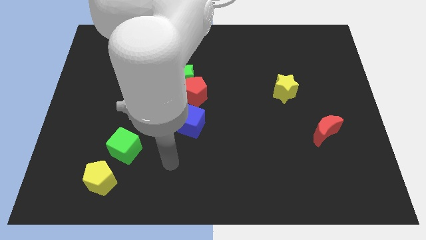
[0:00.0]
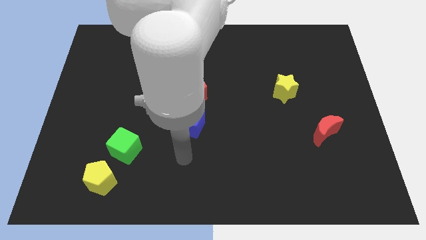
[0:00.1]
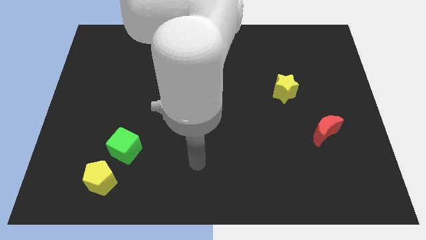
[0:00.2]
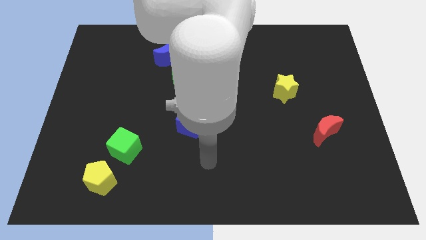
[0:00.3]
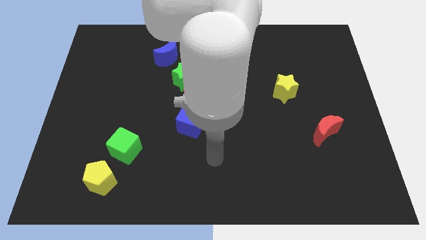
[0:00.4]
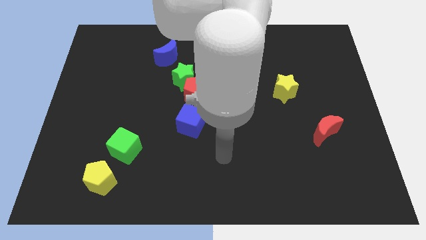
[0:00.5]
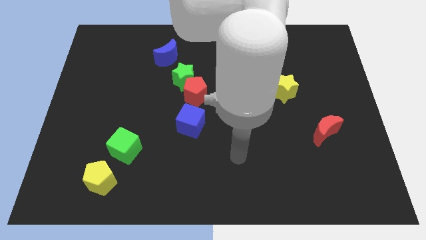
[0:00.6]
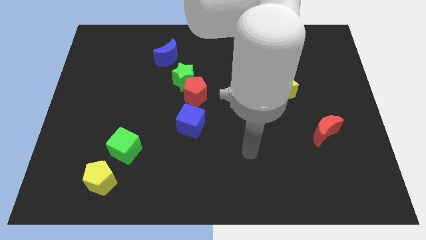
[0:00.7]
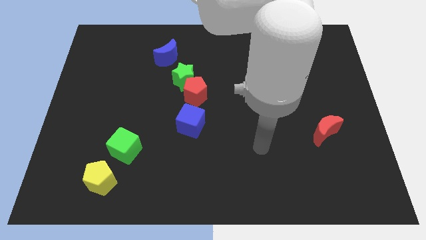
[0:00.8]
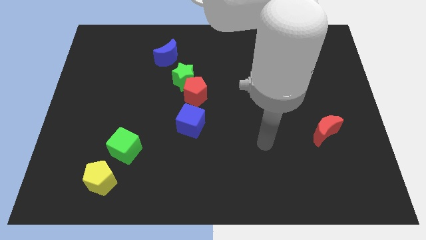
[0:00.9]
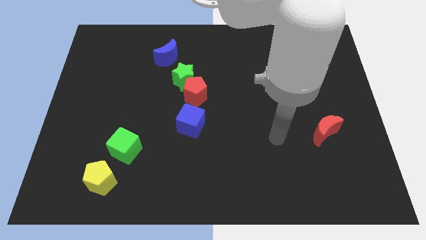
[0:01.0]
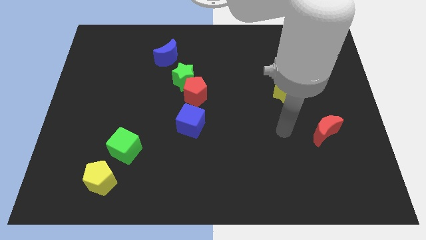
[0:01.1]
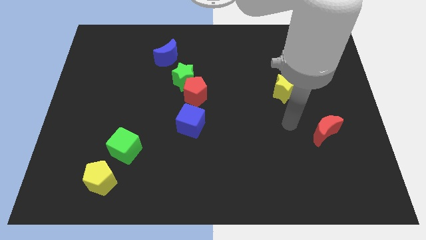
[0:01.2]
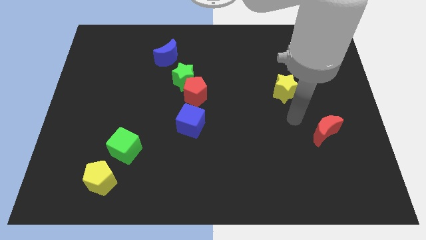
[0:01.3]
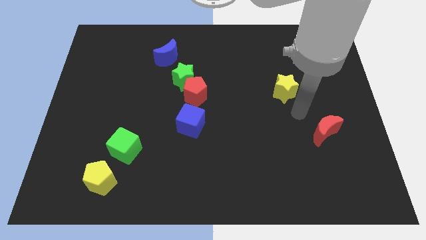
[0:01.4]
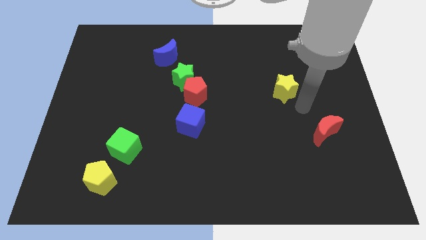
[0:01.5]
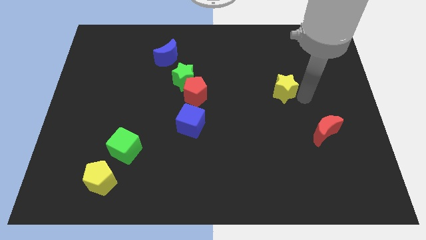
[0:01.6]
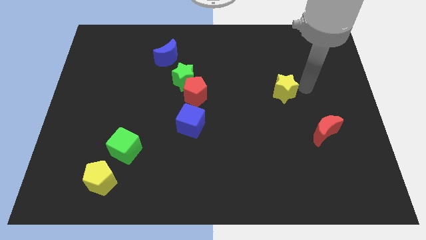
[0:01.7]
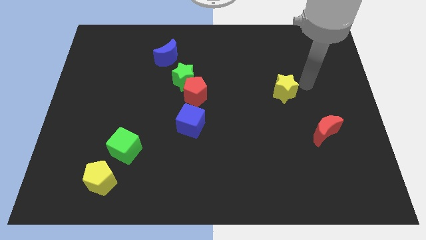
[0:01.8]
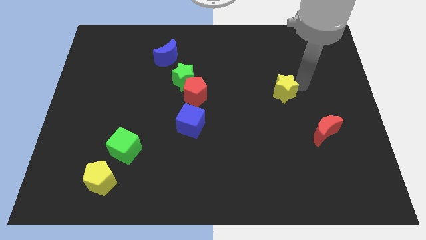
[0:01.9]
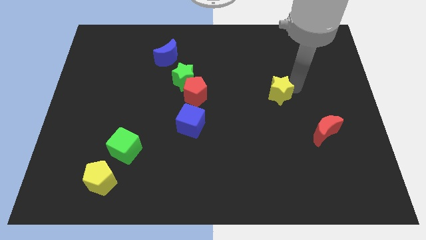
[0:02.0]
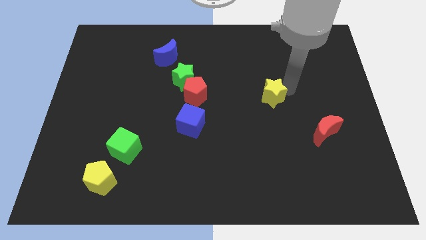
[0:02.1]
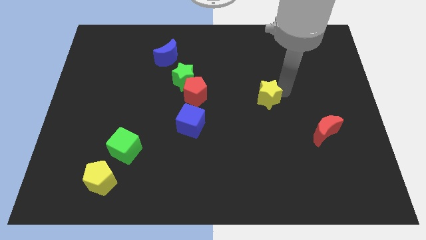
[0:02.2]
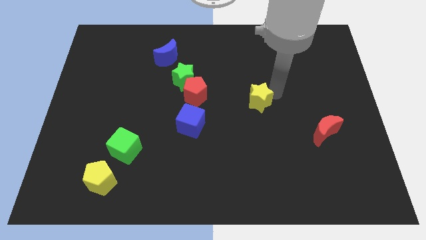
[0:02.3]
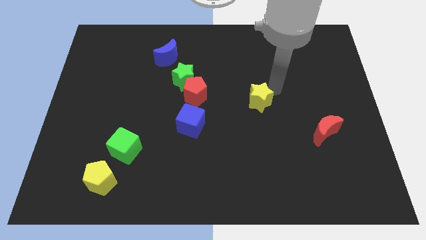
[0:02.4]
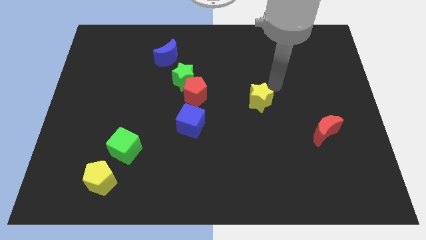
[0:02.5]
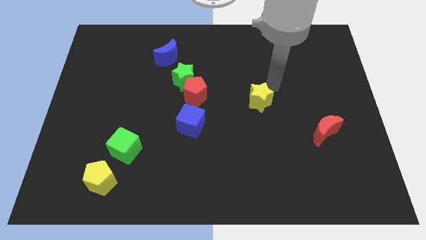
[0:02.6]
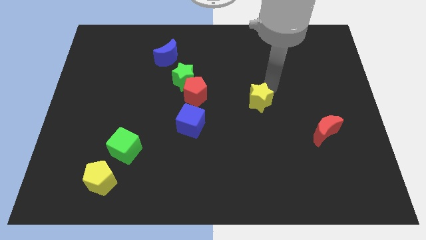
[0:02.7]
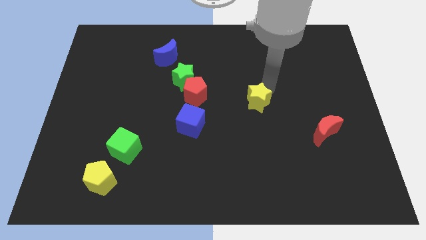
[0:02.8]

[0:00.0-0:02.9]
slide the yellow star down and left diagonally a bit

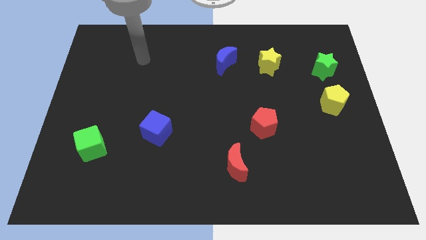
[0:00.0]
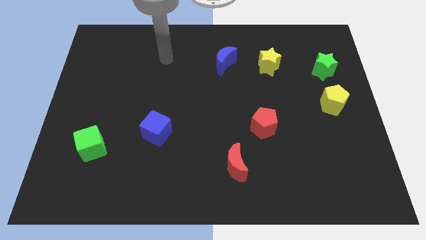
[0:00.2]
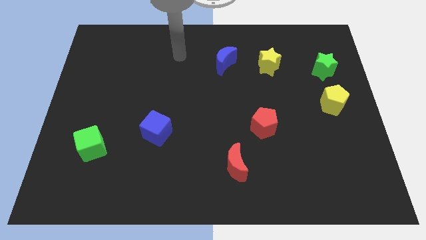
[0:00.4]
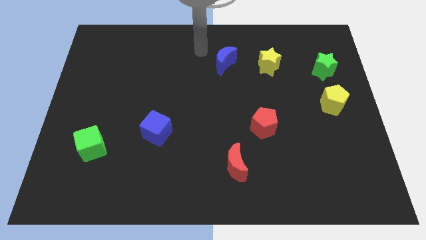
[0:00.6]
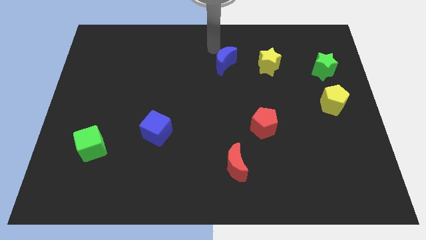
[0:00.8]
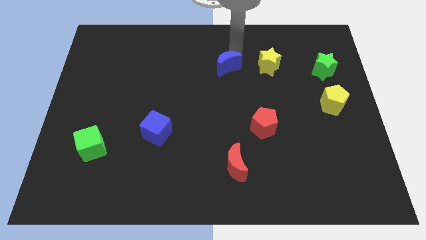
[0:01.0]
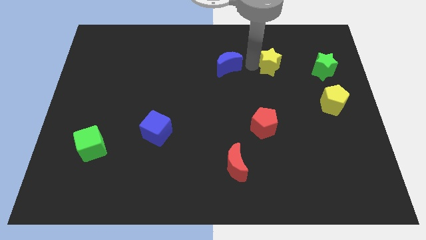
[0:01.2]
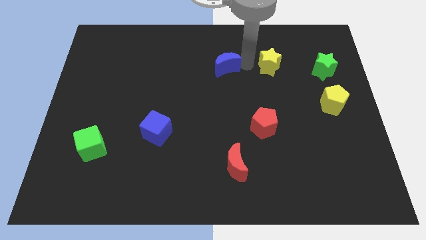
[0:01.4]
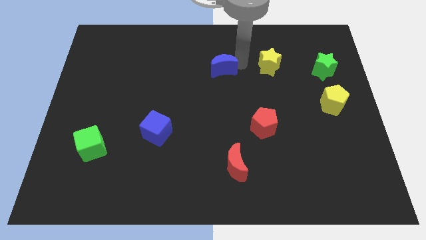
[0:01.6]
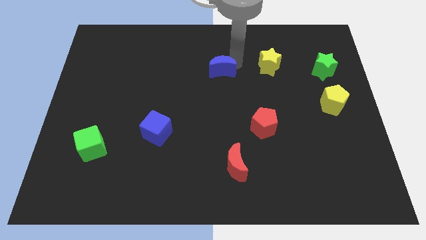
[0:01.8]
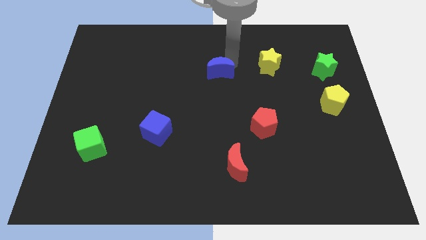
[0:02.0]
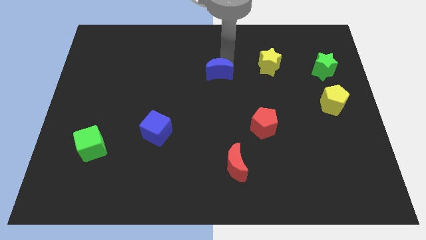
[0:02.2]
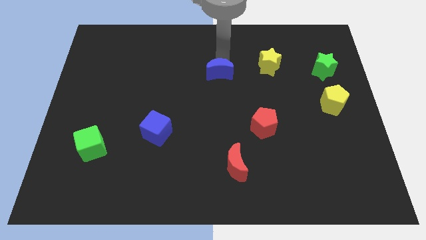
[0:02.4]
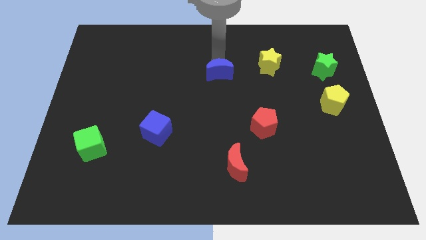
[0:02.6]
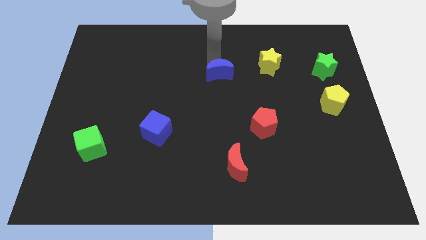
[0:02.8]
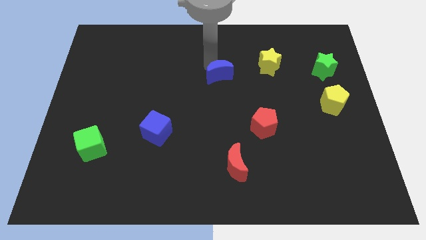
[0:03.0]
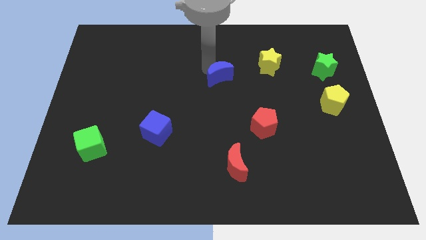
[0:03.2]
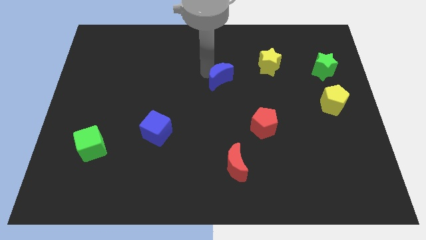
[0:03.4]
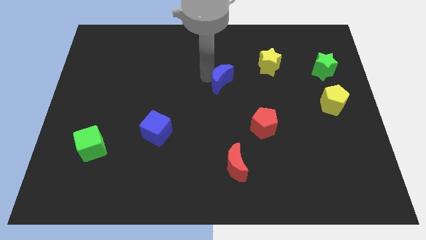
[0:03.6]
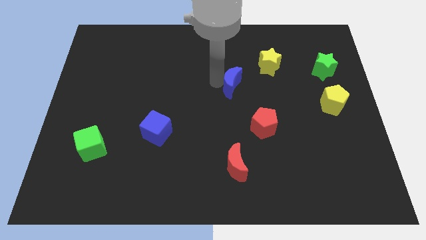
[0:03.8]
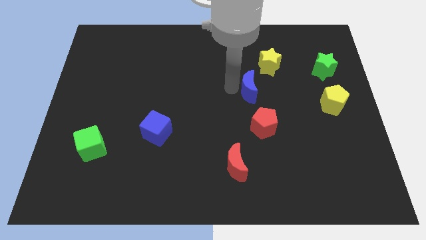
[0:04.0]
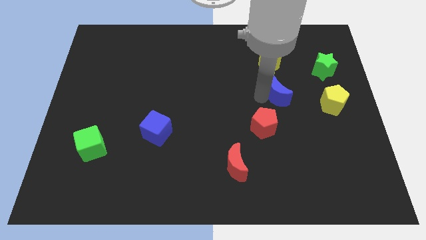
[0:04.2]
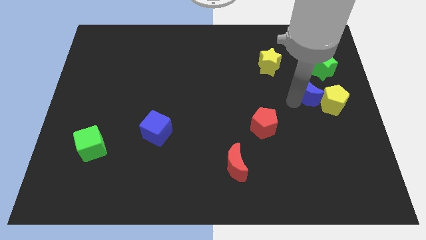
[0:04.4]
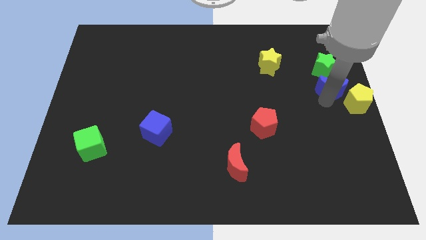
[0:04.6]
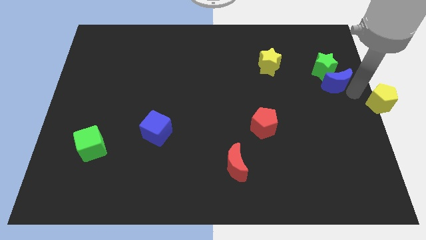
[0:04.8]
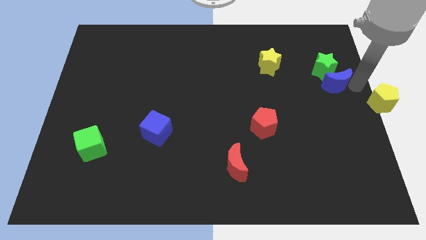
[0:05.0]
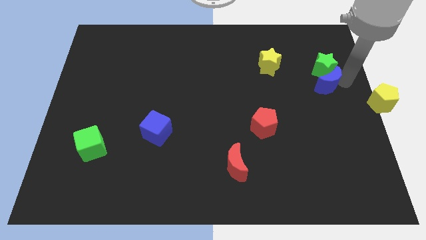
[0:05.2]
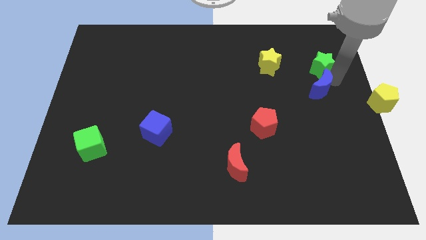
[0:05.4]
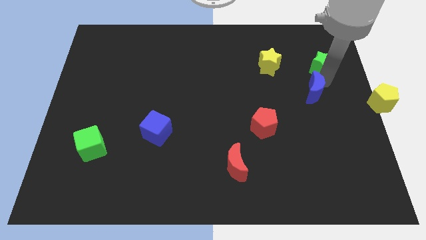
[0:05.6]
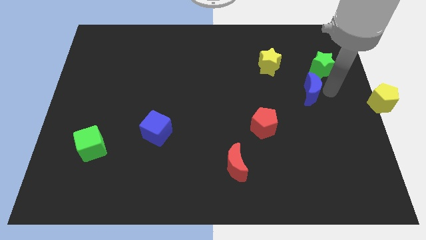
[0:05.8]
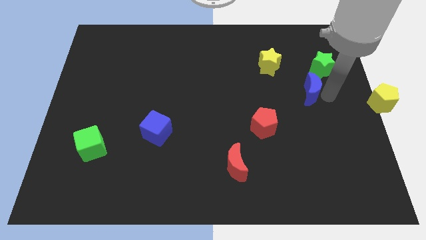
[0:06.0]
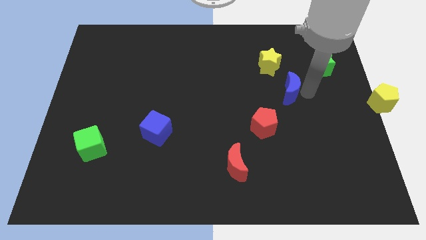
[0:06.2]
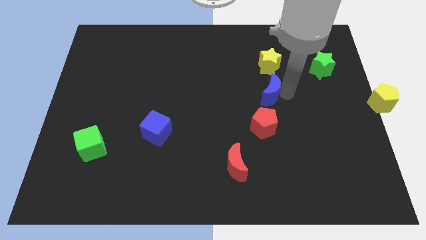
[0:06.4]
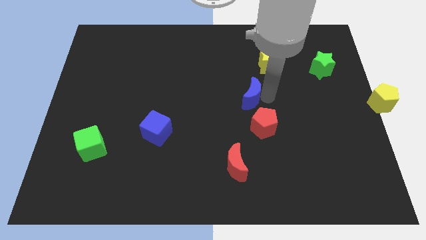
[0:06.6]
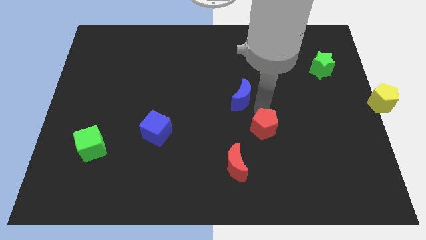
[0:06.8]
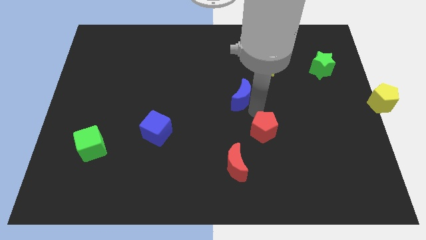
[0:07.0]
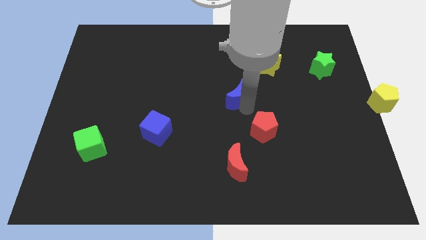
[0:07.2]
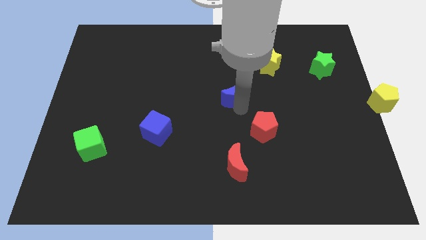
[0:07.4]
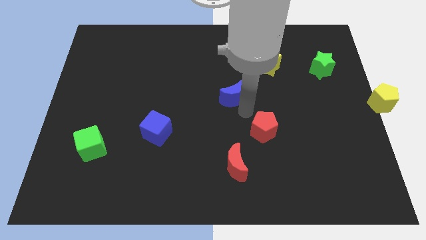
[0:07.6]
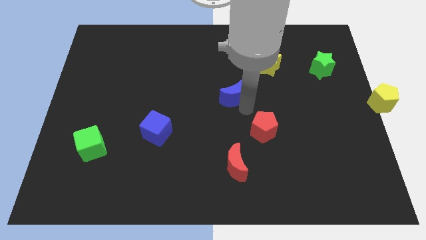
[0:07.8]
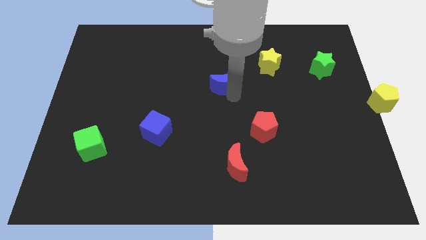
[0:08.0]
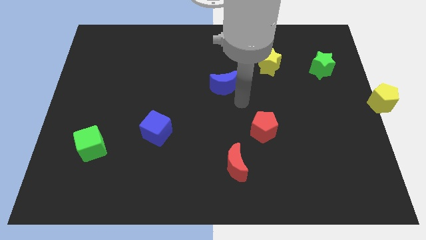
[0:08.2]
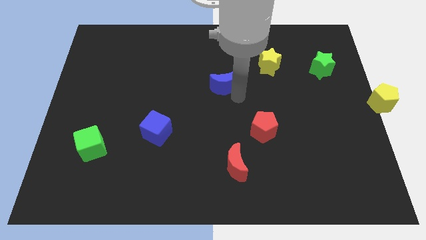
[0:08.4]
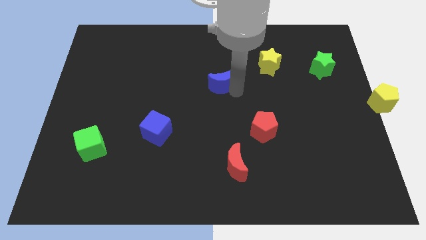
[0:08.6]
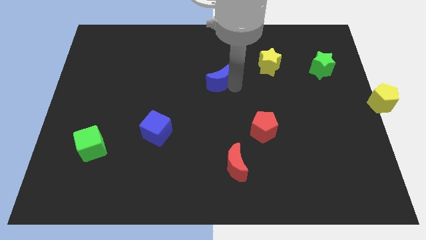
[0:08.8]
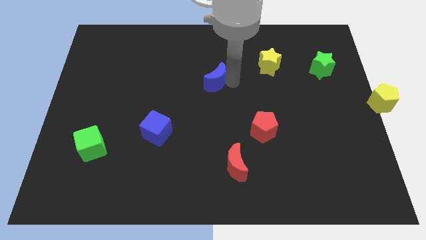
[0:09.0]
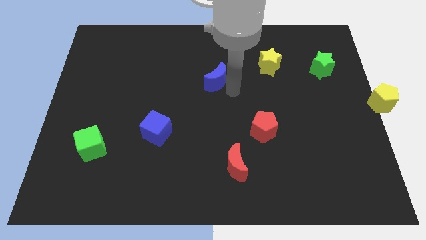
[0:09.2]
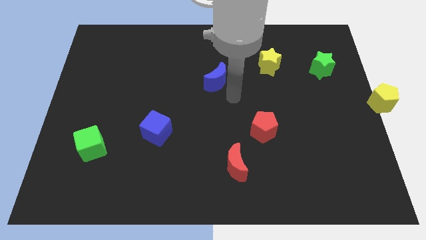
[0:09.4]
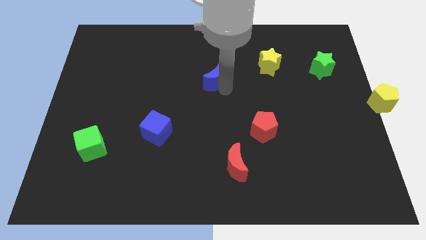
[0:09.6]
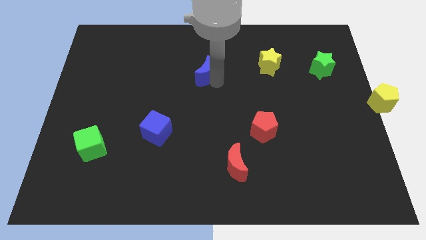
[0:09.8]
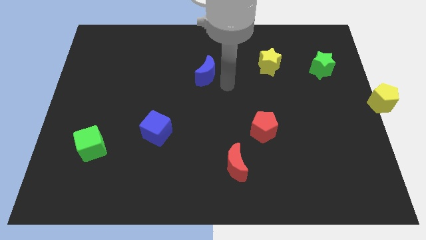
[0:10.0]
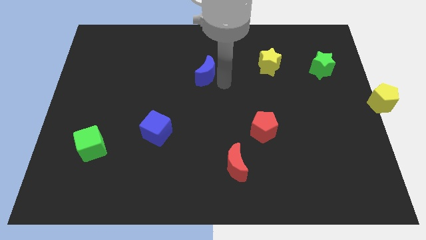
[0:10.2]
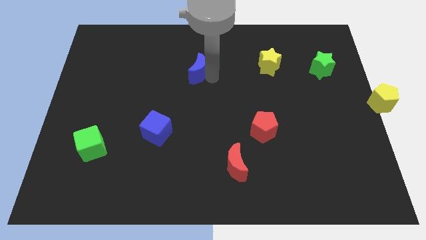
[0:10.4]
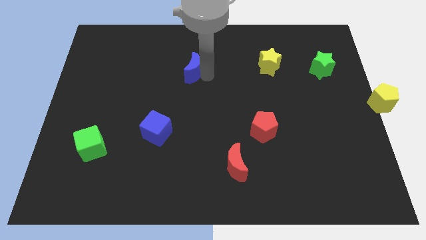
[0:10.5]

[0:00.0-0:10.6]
slightly push the blue moon left

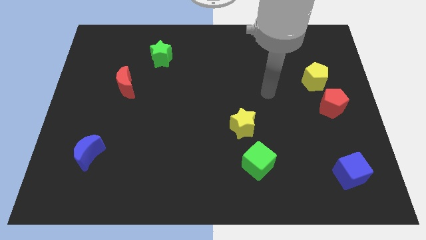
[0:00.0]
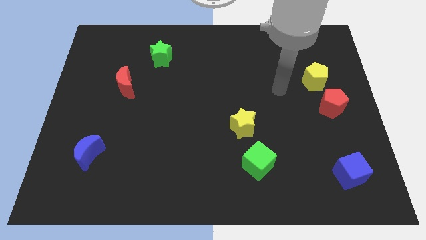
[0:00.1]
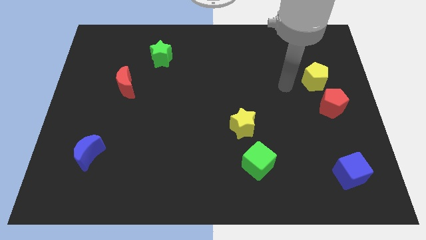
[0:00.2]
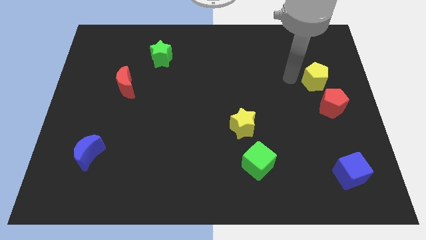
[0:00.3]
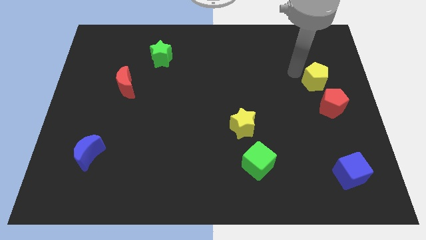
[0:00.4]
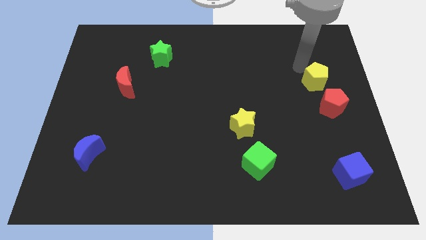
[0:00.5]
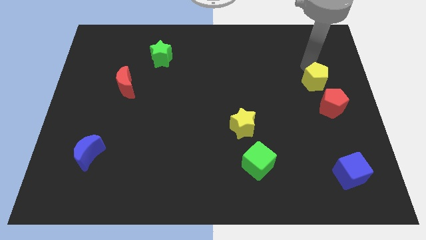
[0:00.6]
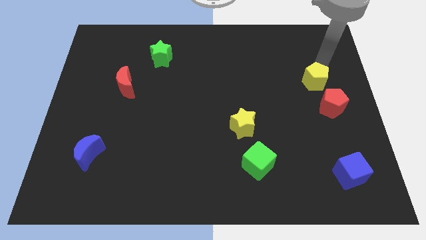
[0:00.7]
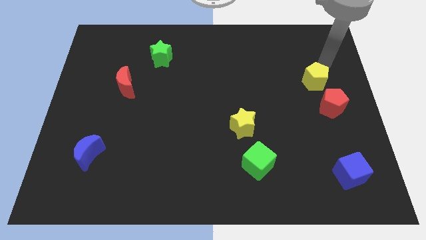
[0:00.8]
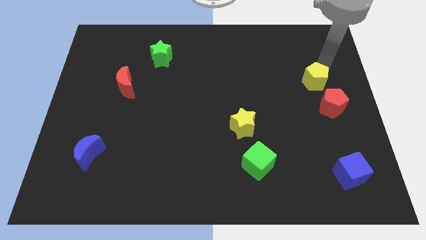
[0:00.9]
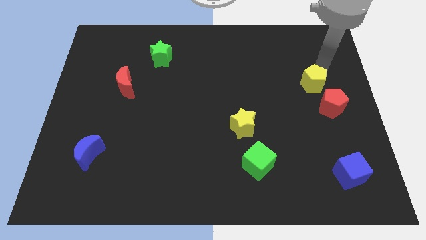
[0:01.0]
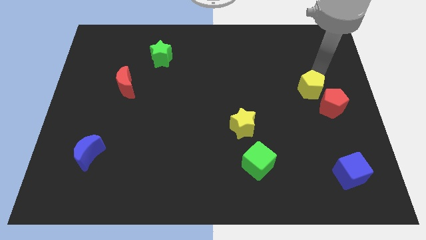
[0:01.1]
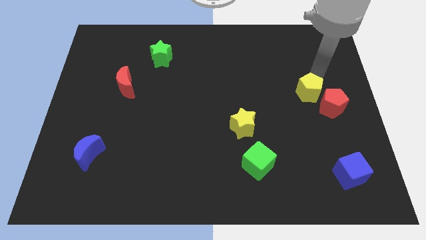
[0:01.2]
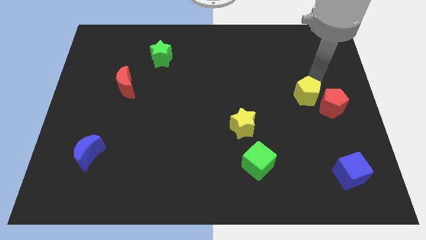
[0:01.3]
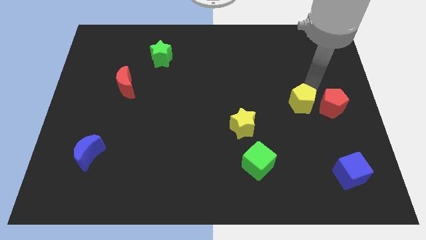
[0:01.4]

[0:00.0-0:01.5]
push the yellow pentagon diagonally downwards and left slightly
